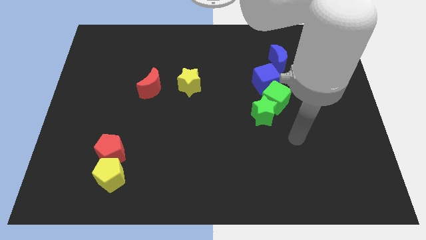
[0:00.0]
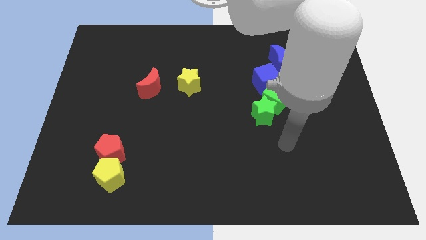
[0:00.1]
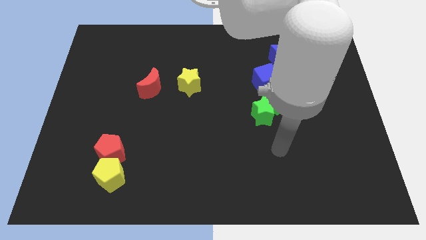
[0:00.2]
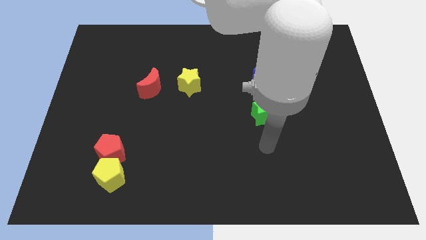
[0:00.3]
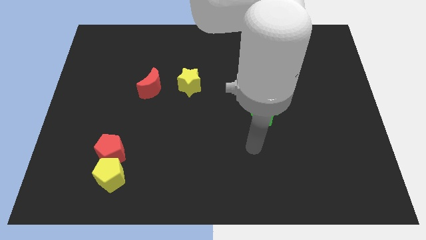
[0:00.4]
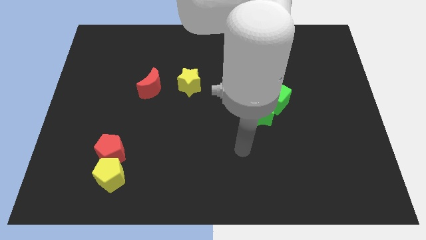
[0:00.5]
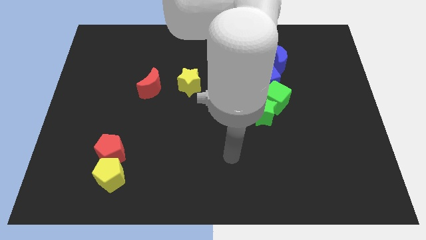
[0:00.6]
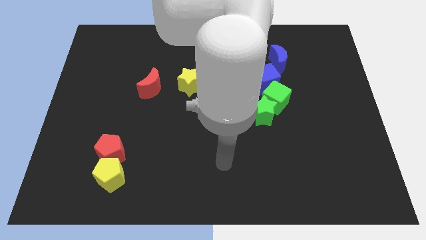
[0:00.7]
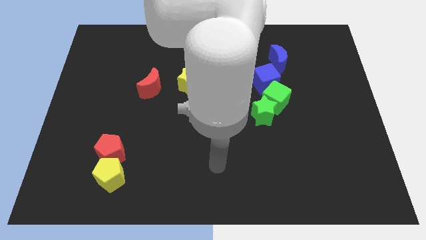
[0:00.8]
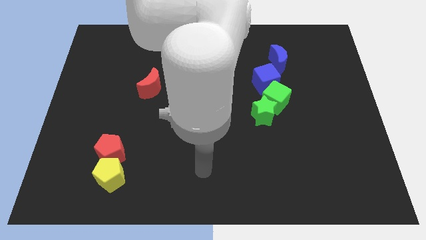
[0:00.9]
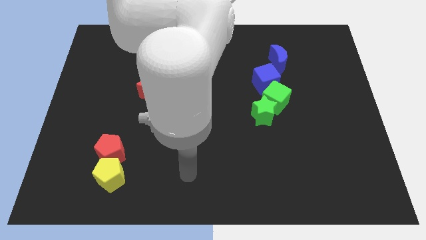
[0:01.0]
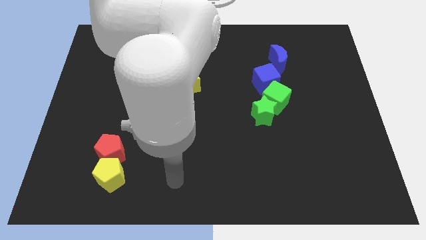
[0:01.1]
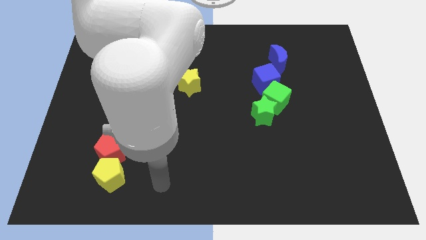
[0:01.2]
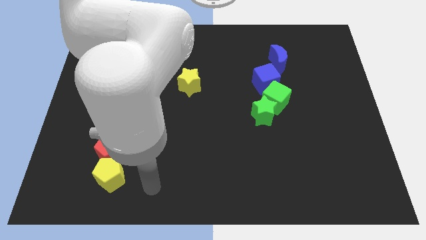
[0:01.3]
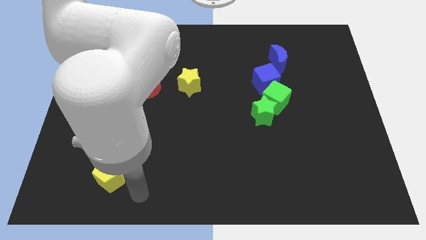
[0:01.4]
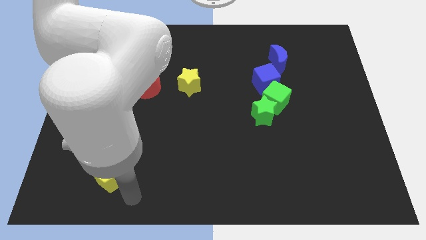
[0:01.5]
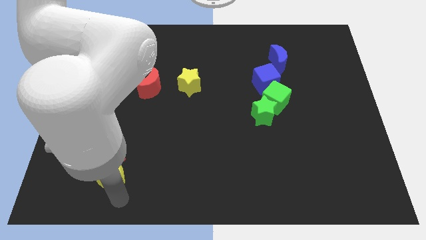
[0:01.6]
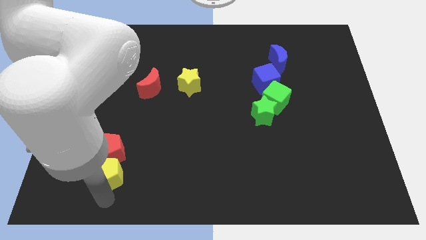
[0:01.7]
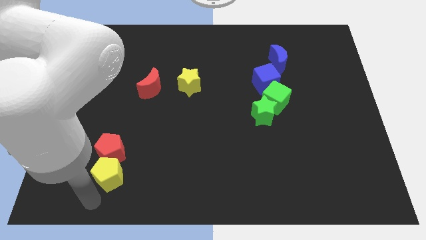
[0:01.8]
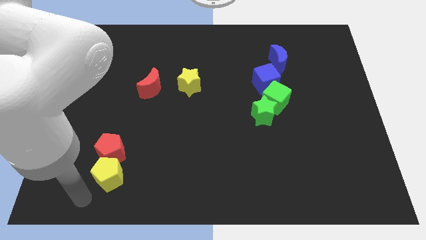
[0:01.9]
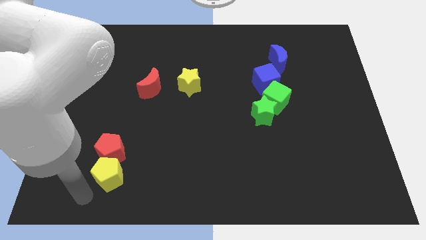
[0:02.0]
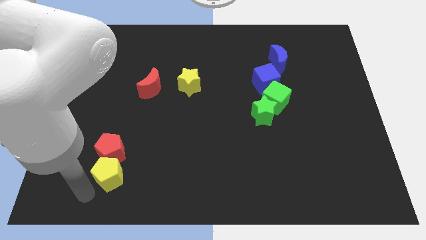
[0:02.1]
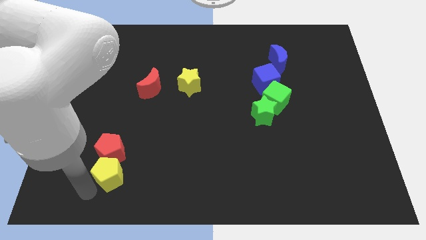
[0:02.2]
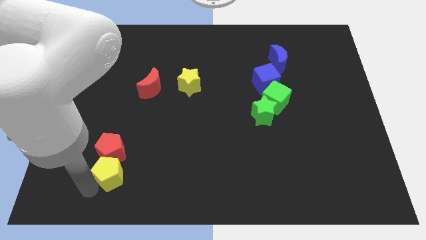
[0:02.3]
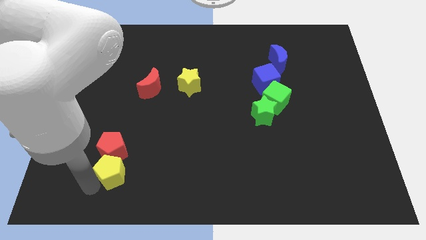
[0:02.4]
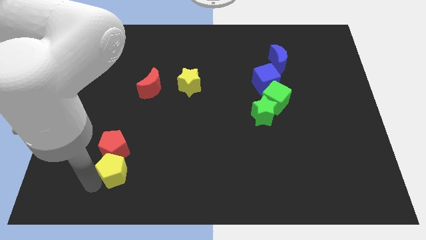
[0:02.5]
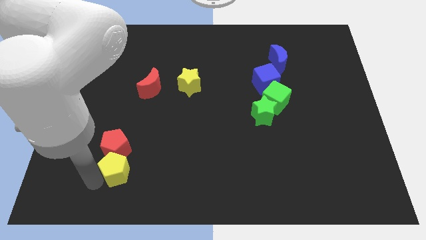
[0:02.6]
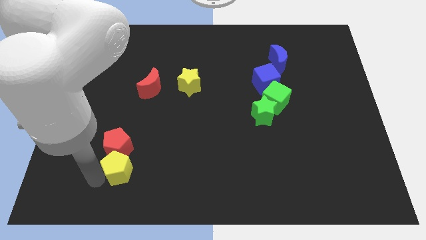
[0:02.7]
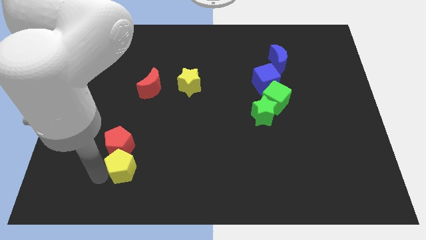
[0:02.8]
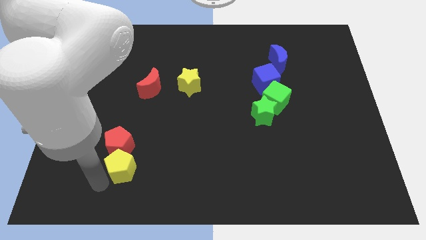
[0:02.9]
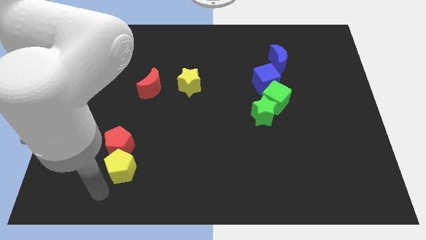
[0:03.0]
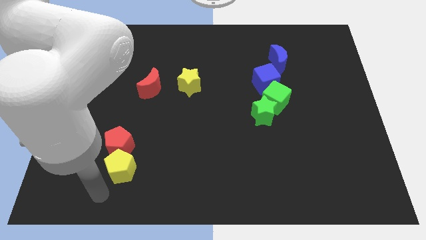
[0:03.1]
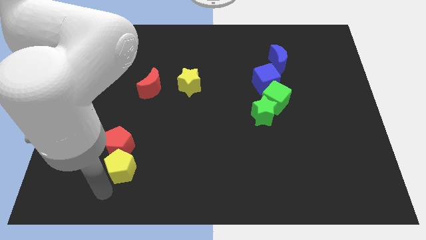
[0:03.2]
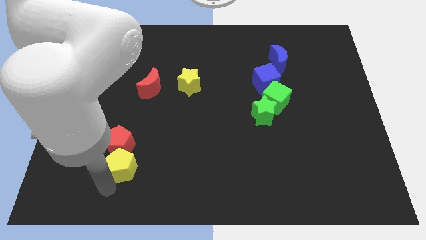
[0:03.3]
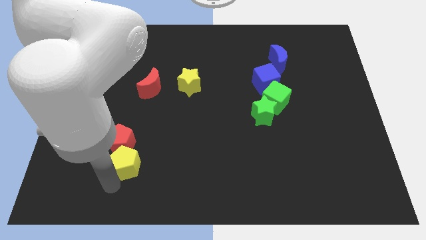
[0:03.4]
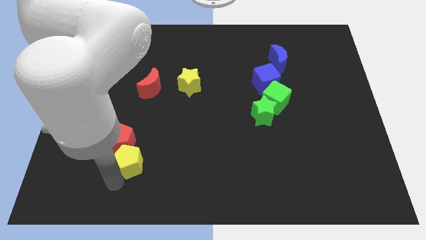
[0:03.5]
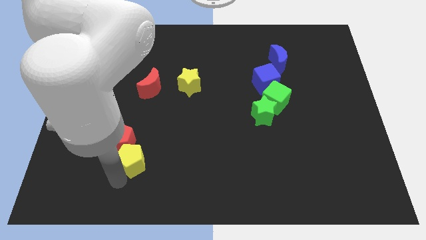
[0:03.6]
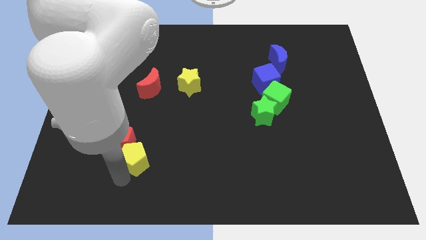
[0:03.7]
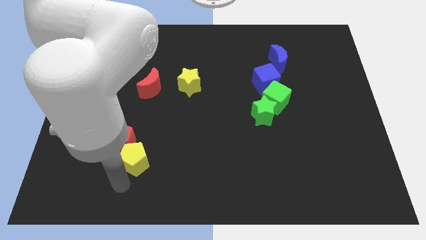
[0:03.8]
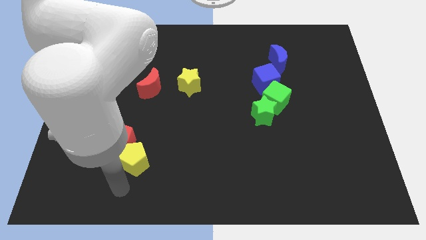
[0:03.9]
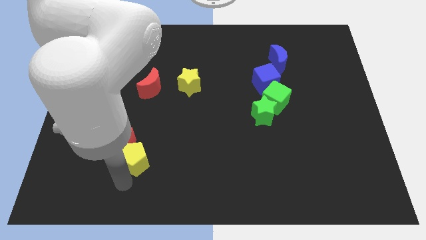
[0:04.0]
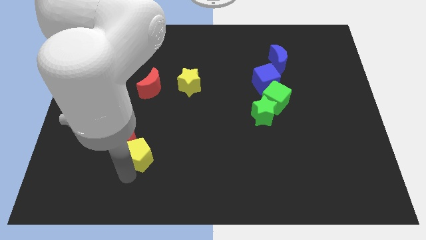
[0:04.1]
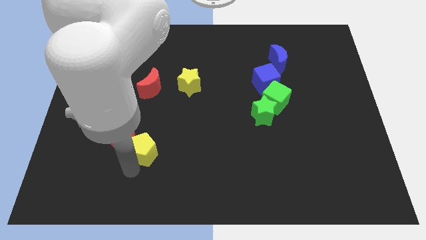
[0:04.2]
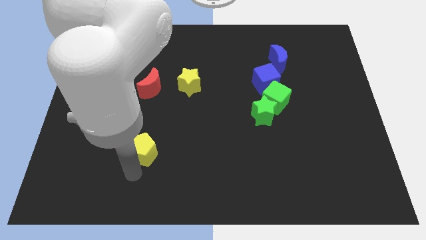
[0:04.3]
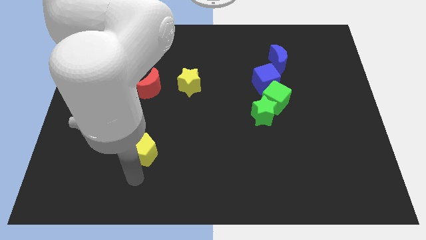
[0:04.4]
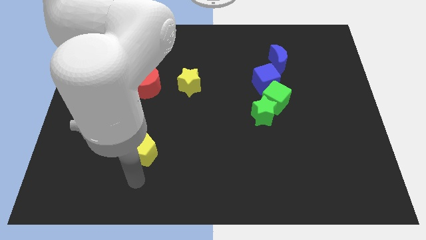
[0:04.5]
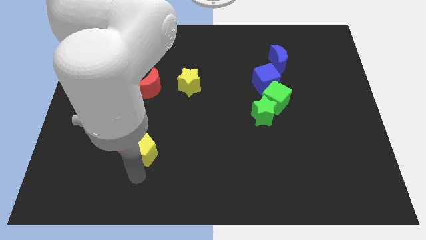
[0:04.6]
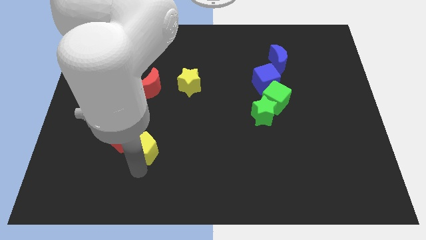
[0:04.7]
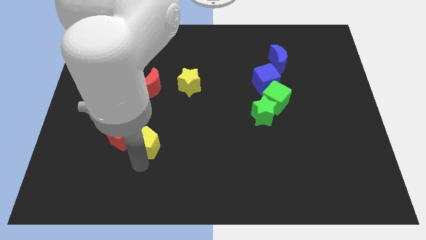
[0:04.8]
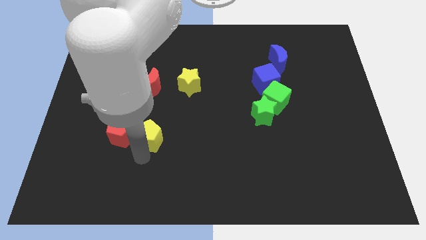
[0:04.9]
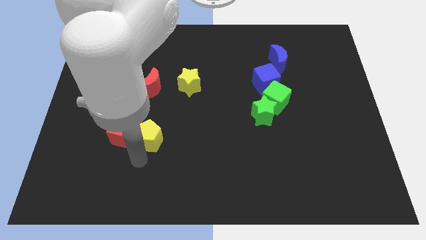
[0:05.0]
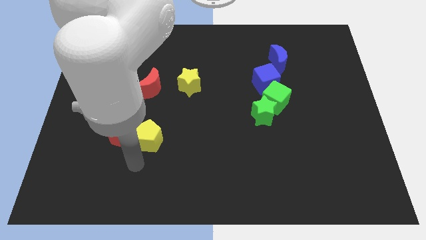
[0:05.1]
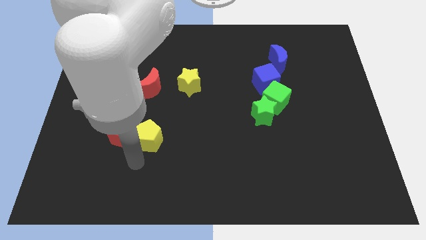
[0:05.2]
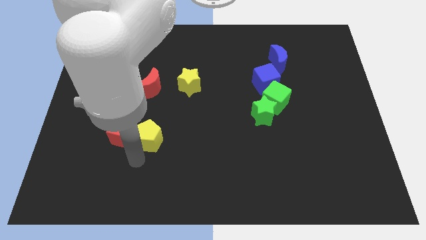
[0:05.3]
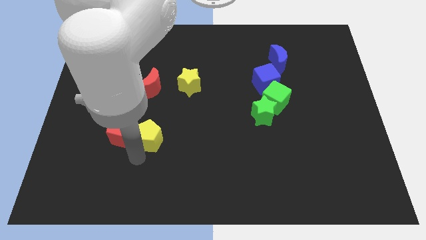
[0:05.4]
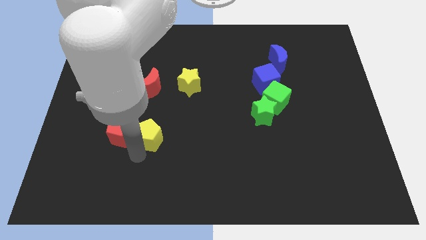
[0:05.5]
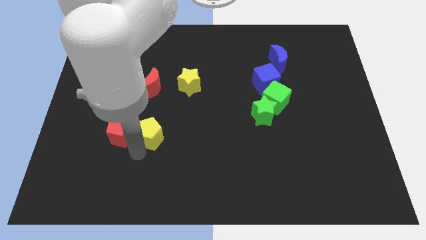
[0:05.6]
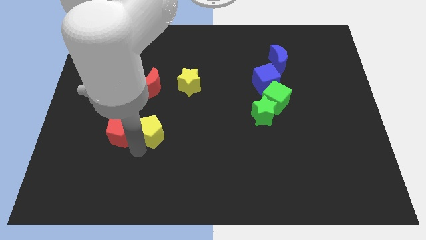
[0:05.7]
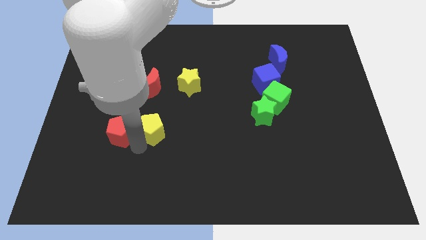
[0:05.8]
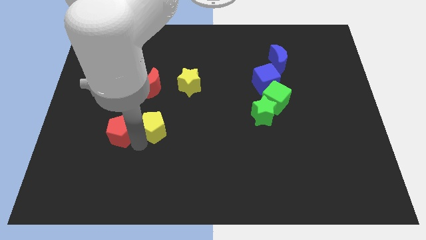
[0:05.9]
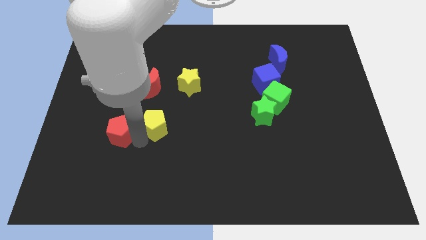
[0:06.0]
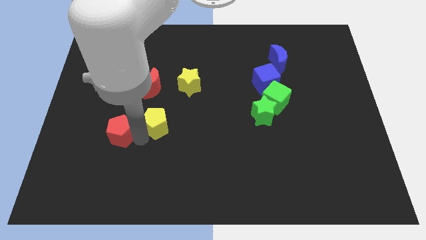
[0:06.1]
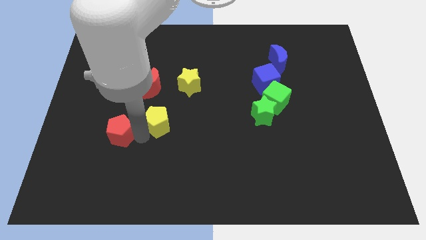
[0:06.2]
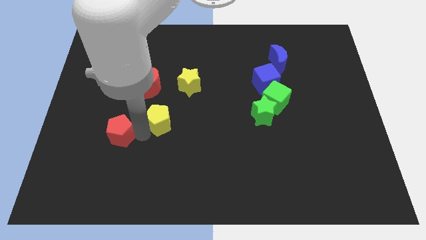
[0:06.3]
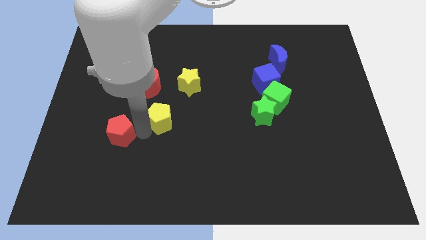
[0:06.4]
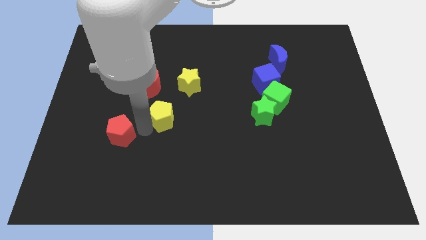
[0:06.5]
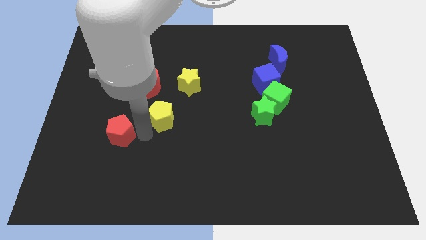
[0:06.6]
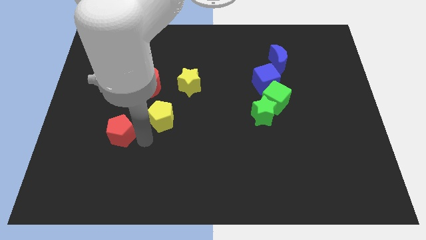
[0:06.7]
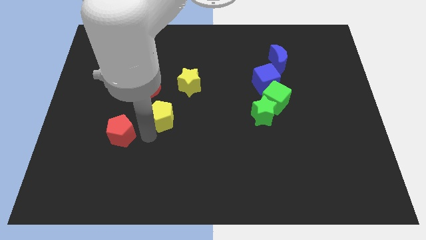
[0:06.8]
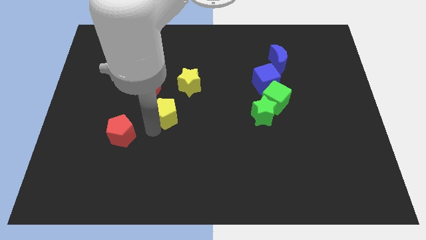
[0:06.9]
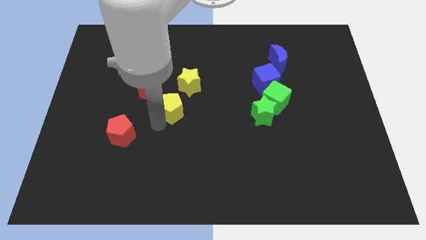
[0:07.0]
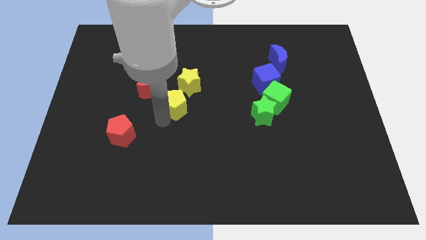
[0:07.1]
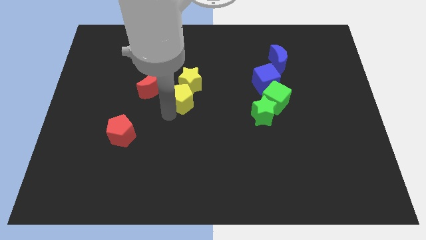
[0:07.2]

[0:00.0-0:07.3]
move the yellow pentagon close to the yellow star
